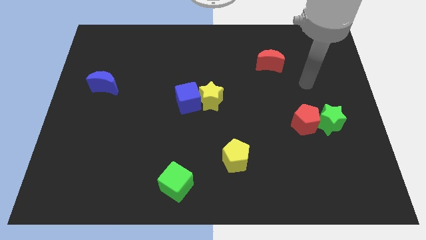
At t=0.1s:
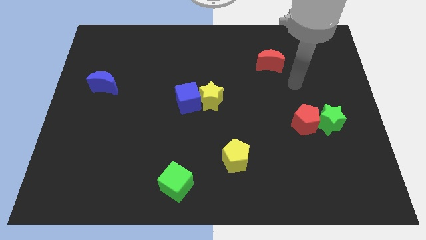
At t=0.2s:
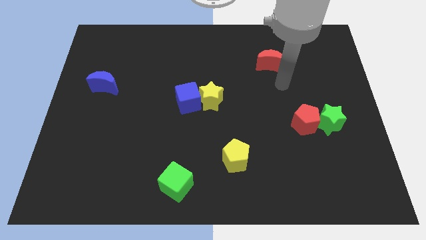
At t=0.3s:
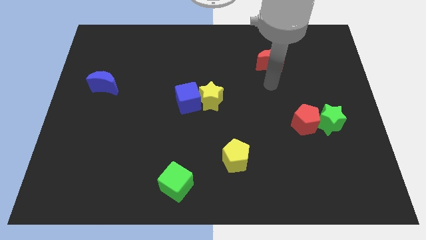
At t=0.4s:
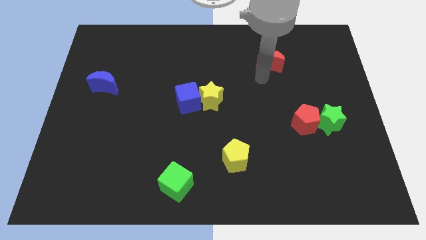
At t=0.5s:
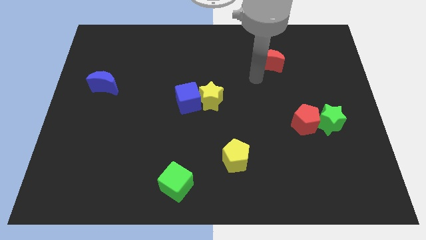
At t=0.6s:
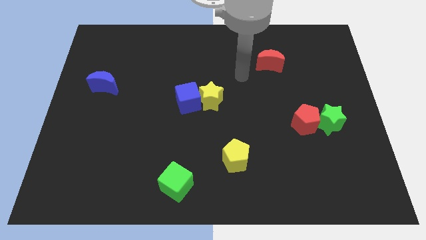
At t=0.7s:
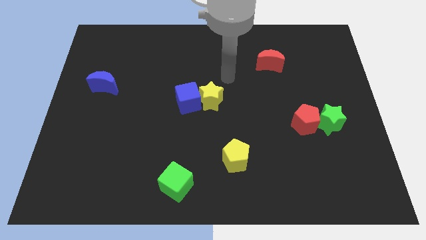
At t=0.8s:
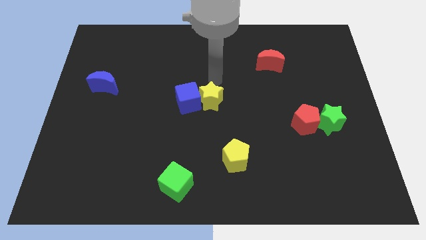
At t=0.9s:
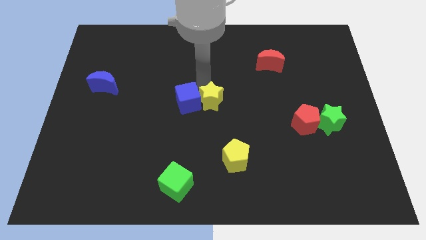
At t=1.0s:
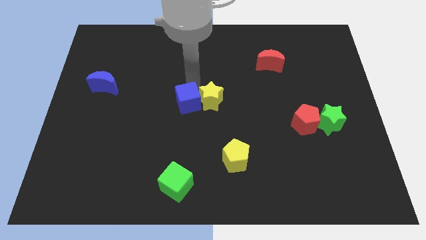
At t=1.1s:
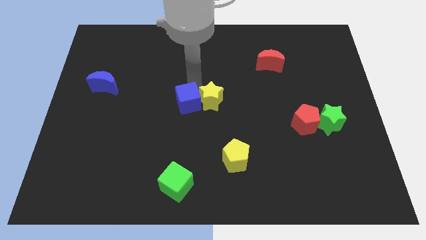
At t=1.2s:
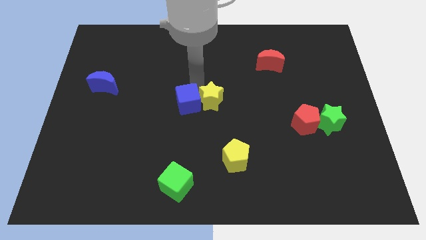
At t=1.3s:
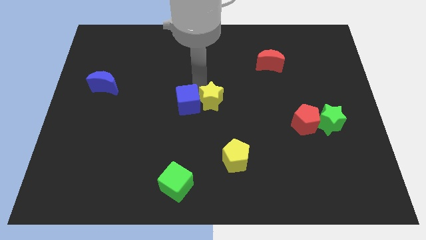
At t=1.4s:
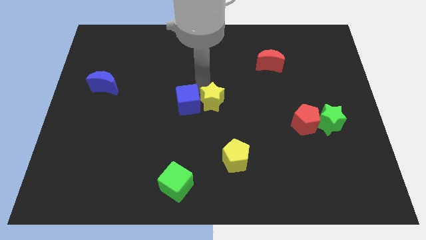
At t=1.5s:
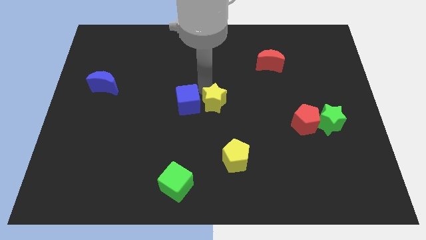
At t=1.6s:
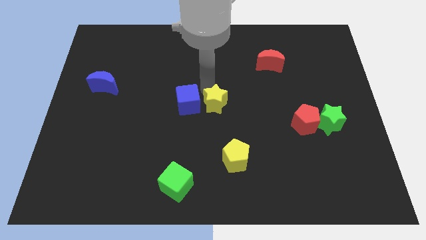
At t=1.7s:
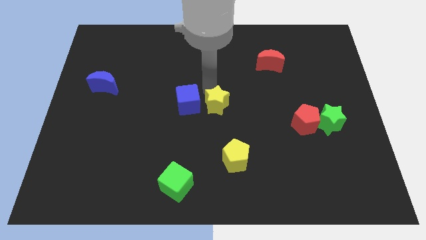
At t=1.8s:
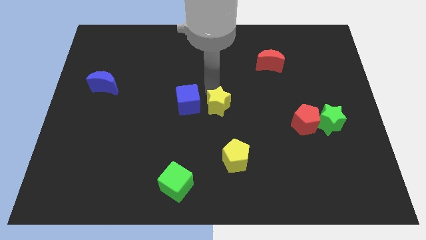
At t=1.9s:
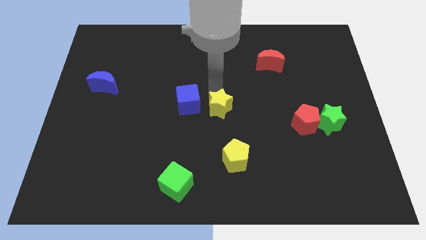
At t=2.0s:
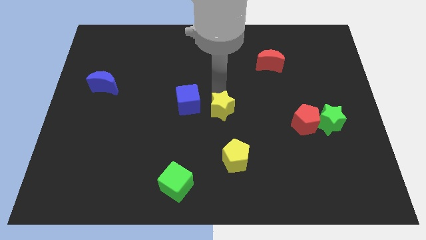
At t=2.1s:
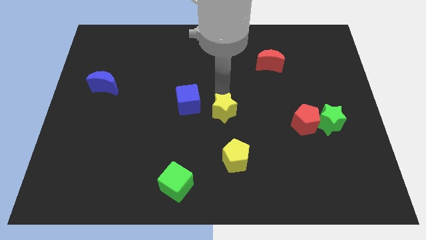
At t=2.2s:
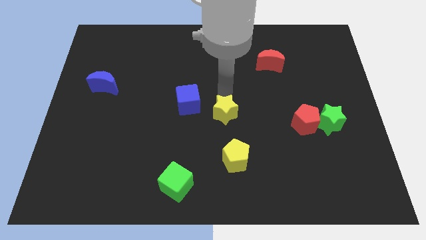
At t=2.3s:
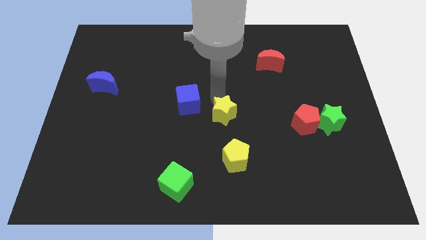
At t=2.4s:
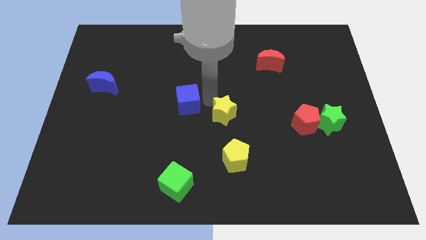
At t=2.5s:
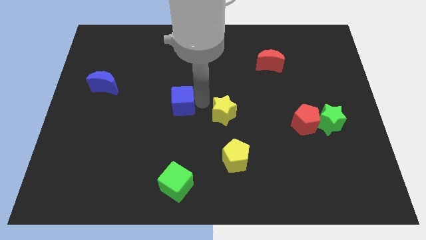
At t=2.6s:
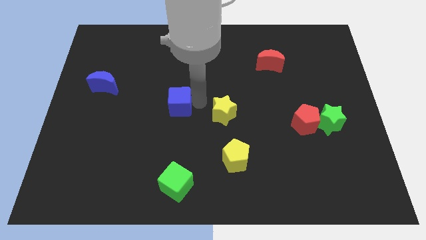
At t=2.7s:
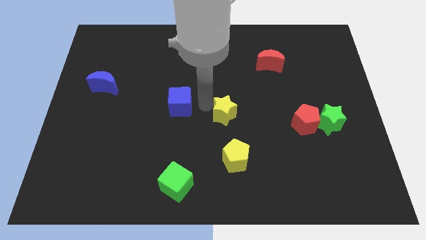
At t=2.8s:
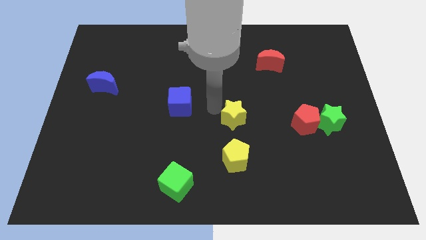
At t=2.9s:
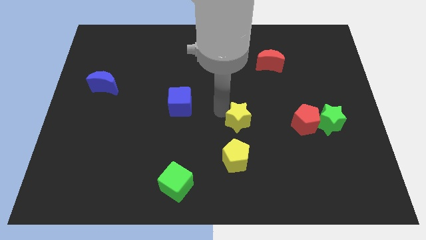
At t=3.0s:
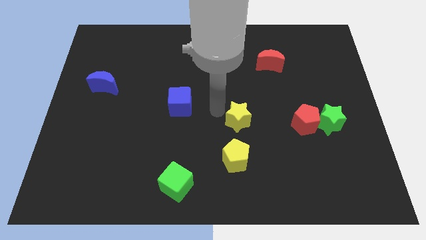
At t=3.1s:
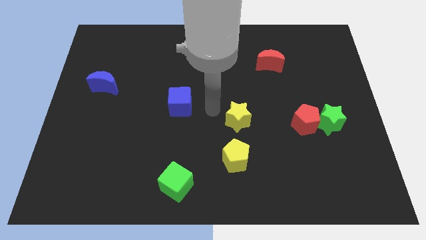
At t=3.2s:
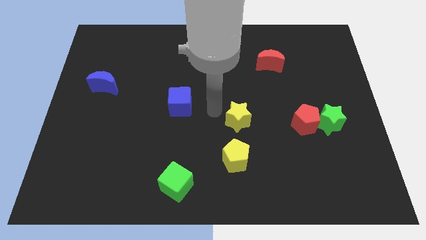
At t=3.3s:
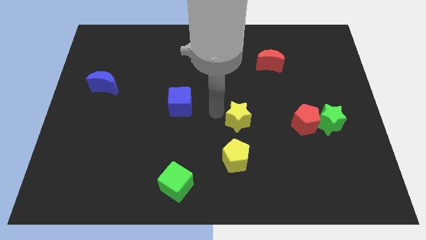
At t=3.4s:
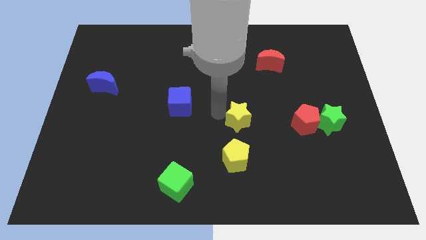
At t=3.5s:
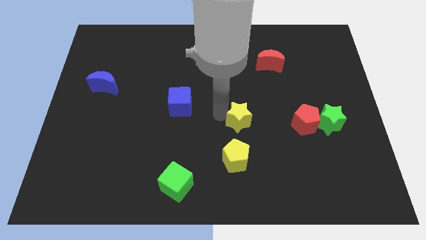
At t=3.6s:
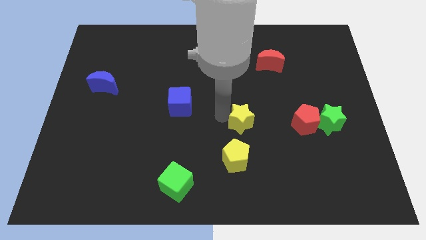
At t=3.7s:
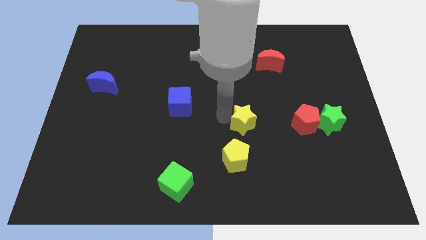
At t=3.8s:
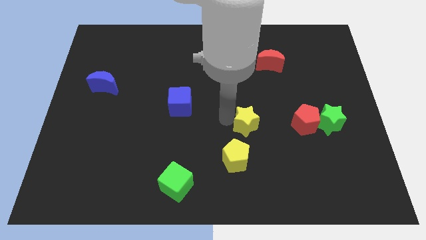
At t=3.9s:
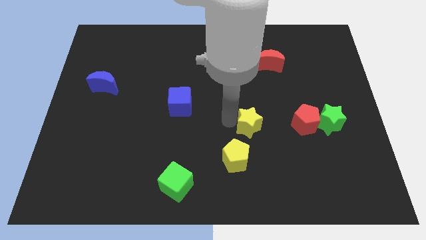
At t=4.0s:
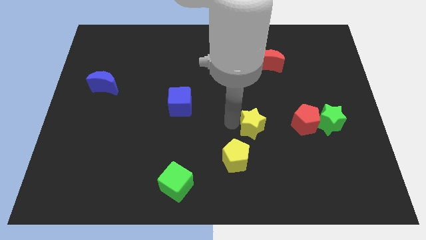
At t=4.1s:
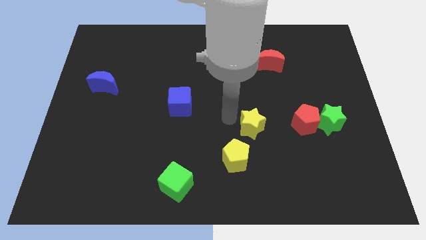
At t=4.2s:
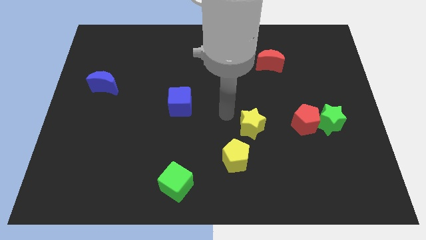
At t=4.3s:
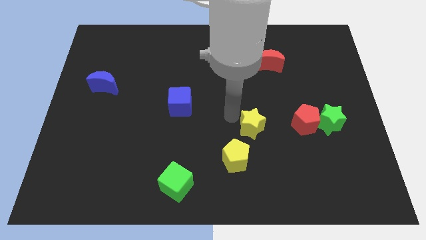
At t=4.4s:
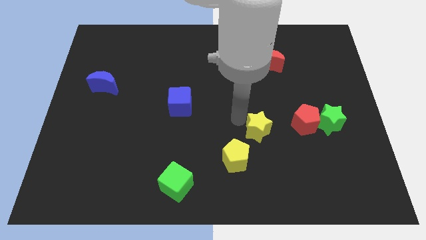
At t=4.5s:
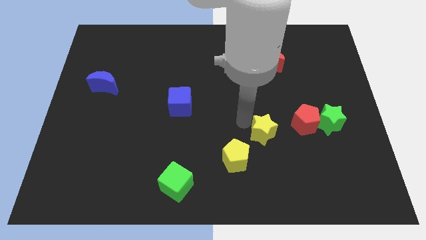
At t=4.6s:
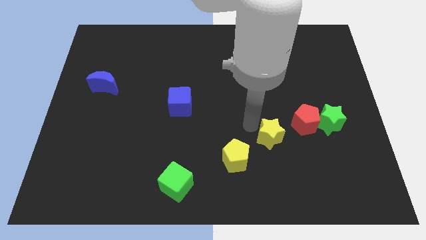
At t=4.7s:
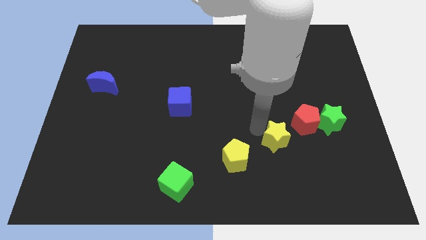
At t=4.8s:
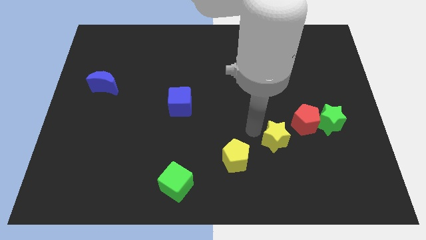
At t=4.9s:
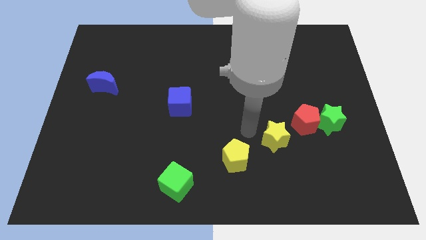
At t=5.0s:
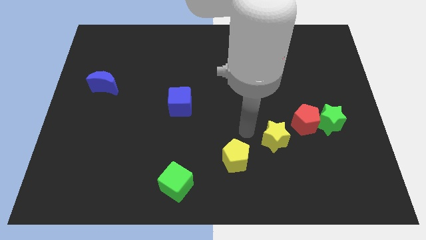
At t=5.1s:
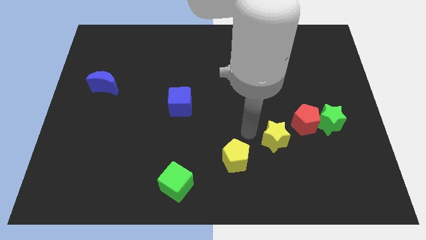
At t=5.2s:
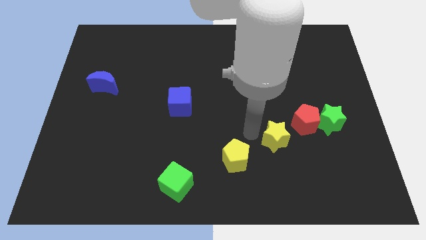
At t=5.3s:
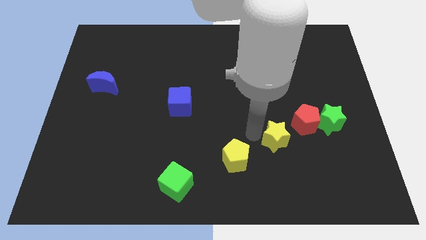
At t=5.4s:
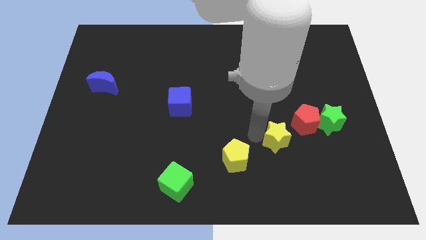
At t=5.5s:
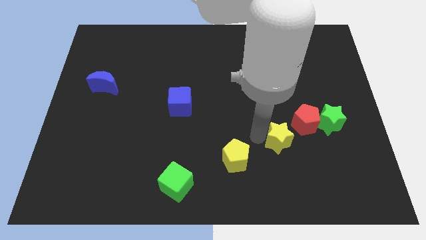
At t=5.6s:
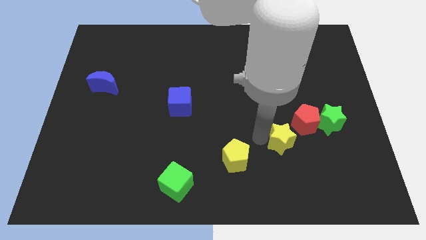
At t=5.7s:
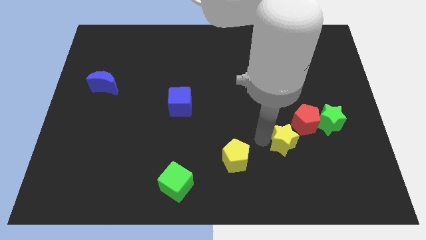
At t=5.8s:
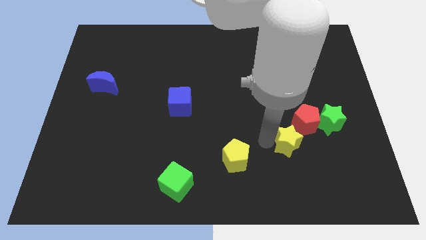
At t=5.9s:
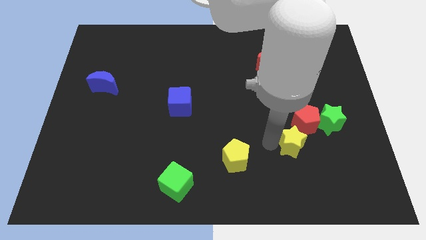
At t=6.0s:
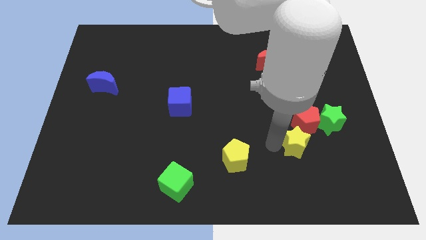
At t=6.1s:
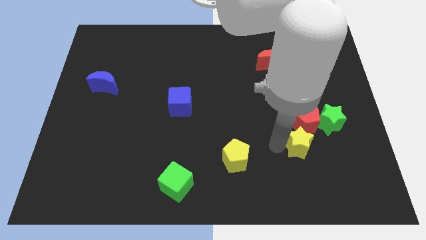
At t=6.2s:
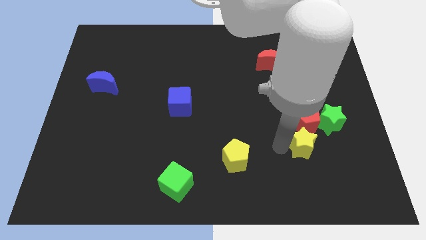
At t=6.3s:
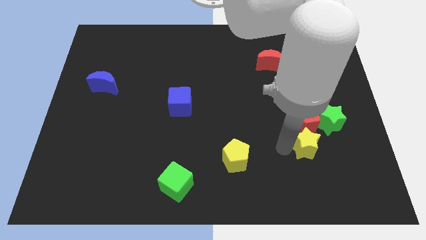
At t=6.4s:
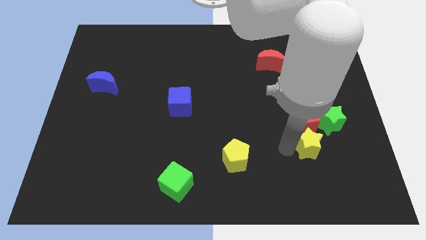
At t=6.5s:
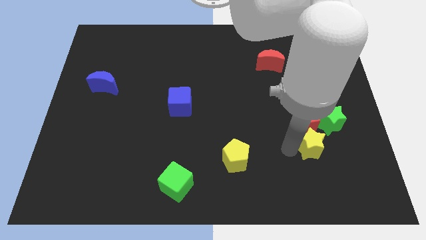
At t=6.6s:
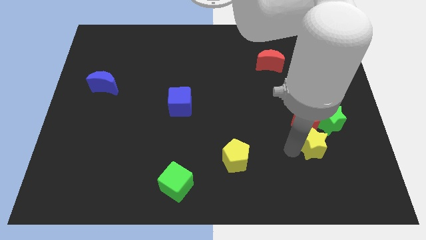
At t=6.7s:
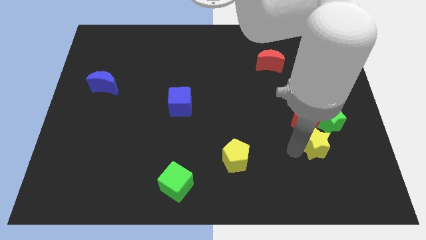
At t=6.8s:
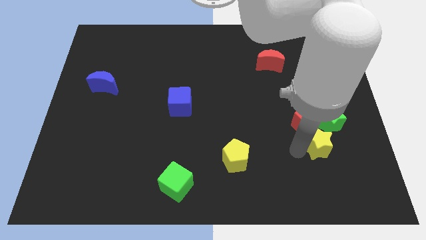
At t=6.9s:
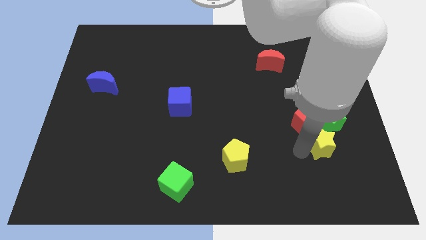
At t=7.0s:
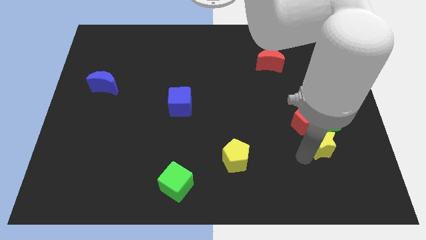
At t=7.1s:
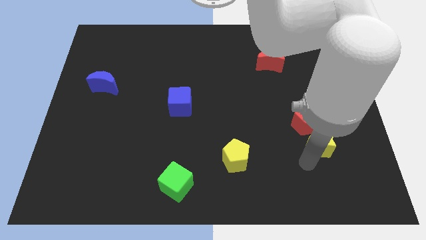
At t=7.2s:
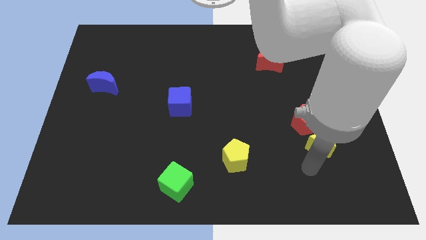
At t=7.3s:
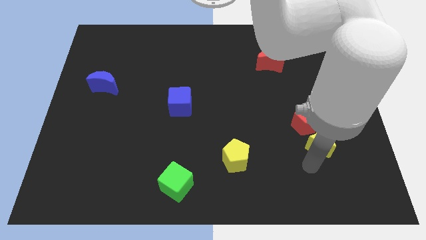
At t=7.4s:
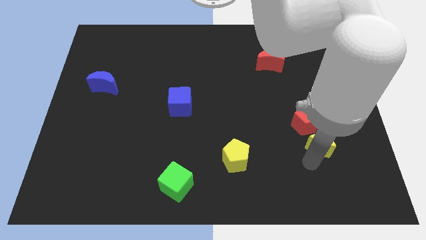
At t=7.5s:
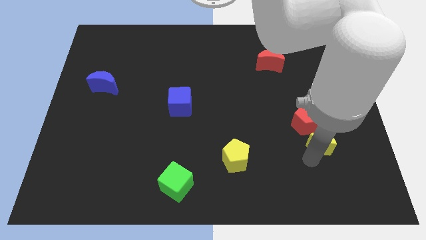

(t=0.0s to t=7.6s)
slide the yellow star towards the green star

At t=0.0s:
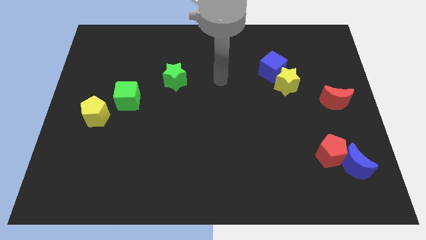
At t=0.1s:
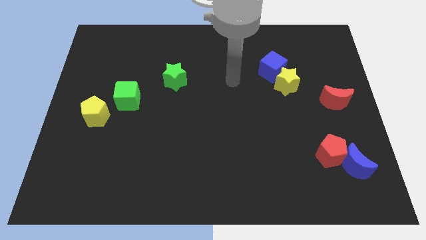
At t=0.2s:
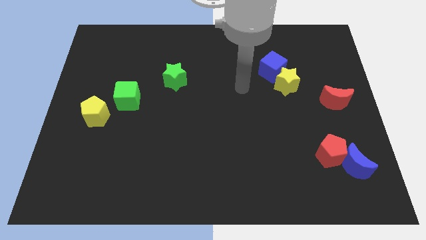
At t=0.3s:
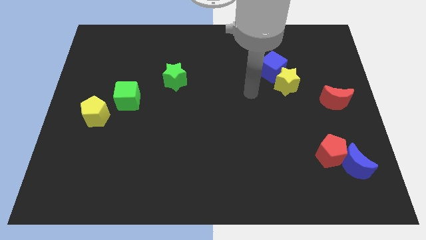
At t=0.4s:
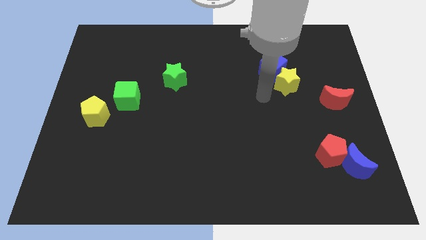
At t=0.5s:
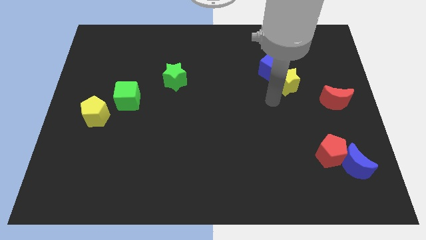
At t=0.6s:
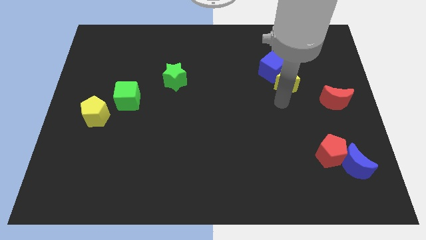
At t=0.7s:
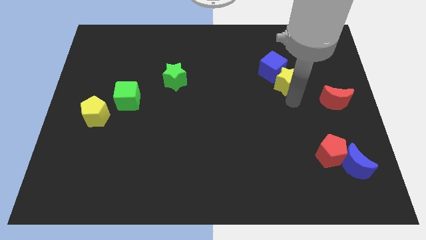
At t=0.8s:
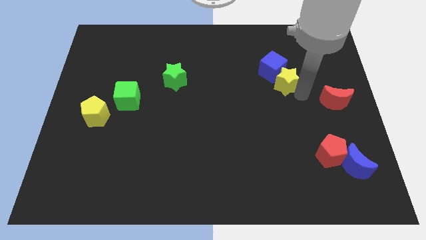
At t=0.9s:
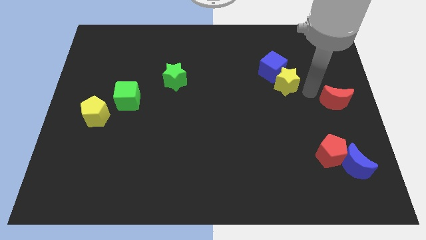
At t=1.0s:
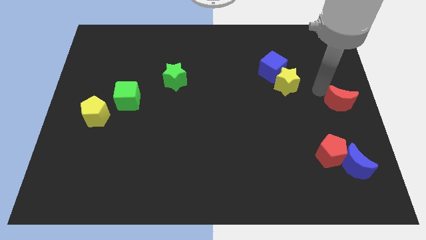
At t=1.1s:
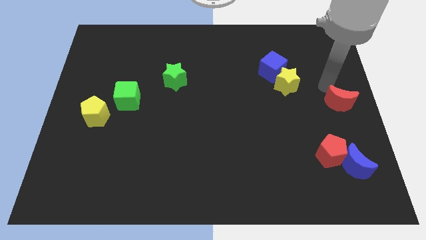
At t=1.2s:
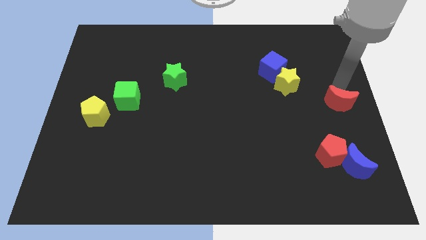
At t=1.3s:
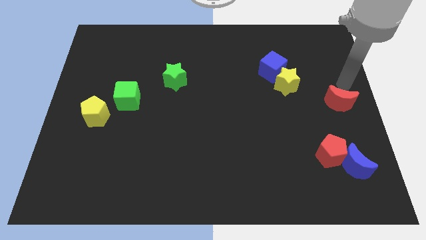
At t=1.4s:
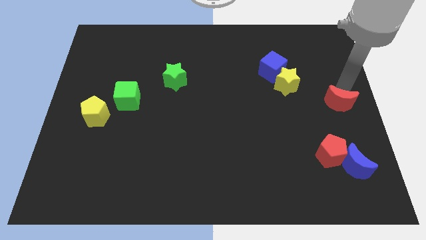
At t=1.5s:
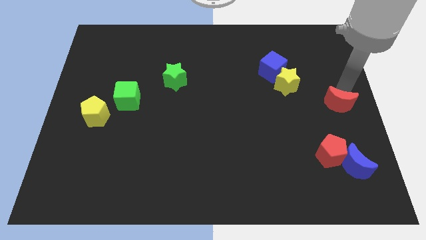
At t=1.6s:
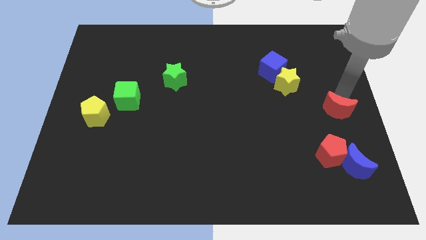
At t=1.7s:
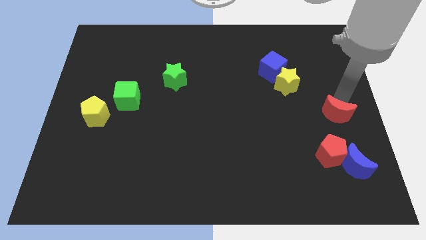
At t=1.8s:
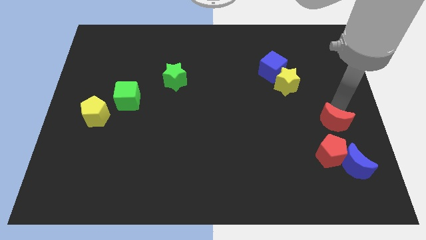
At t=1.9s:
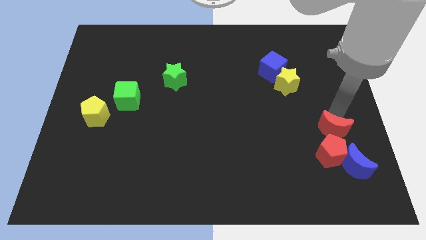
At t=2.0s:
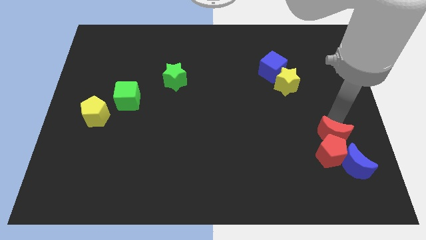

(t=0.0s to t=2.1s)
put the red moon next to the red pentagon
